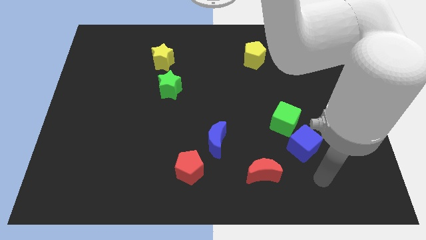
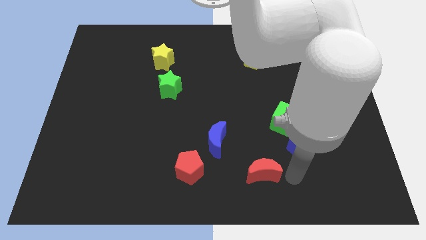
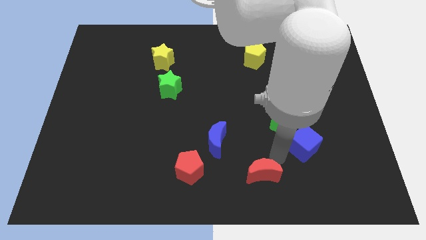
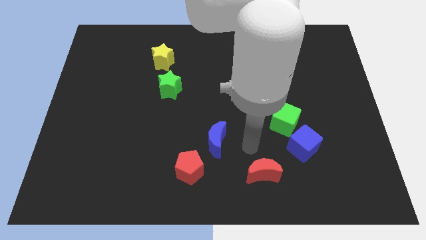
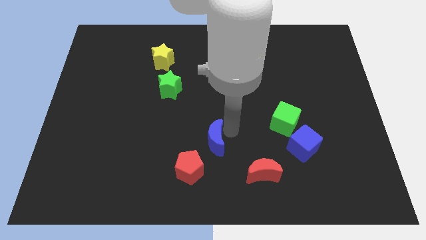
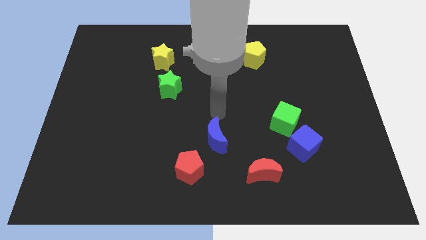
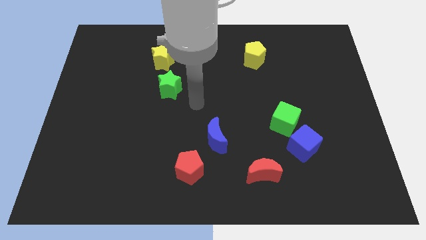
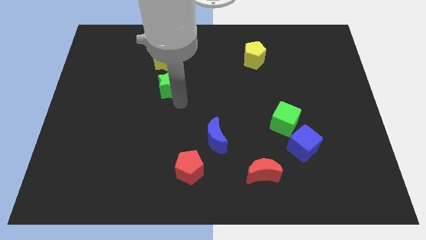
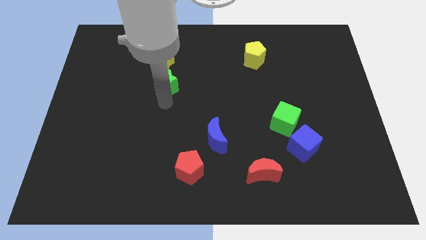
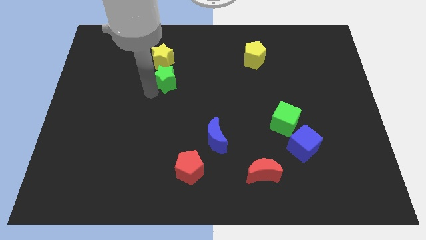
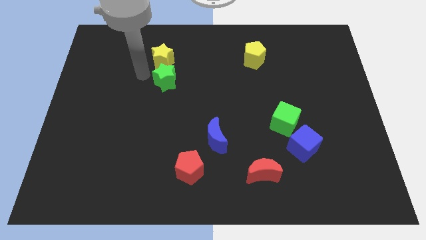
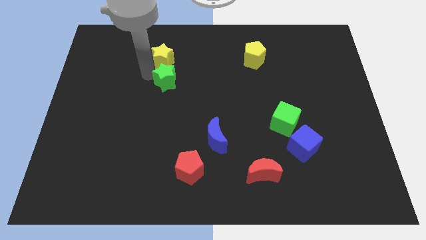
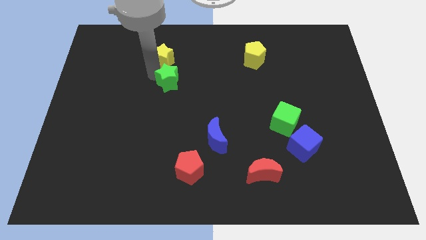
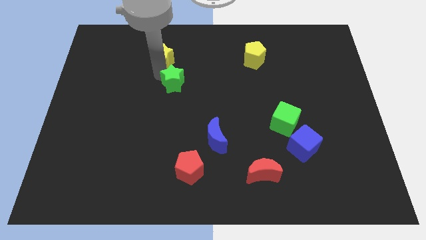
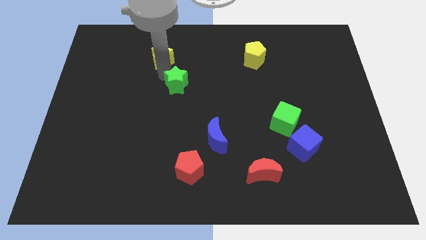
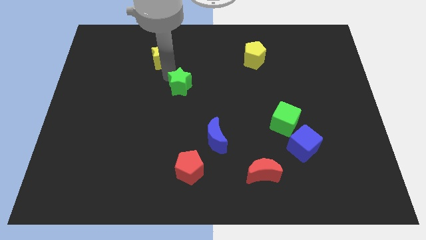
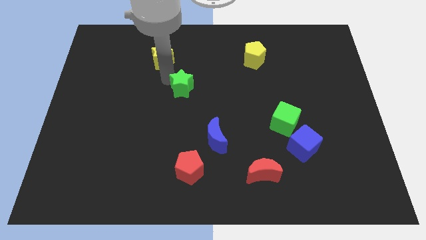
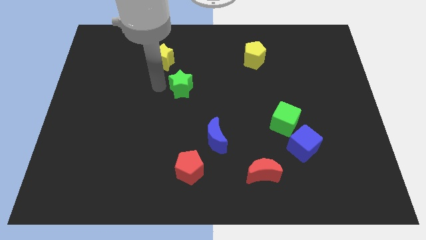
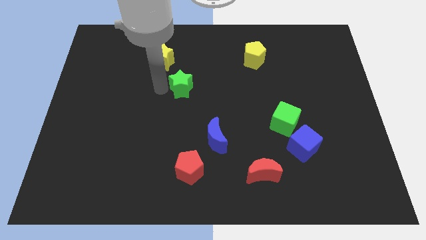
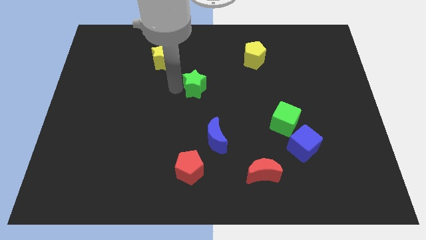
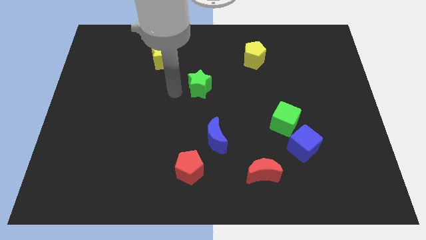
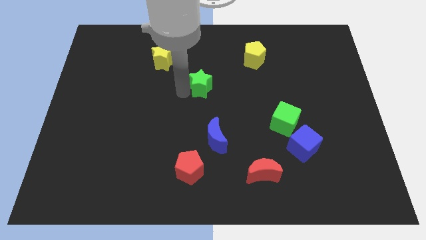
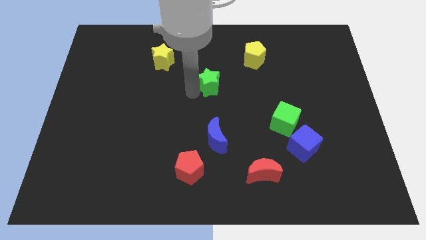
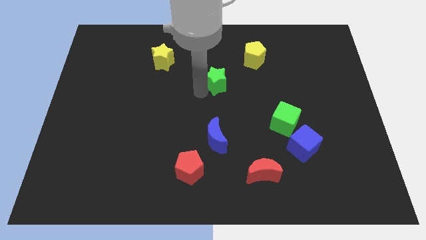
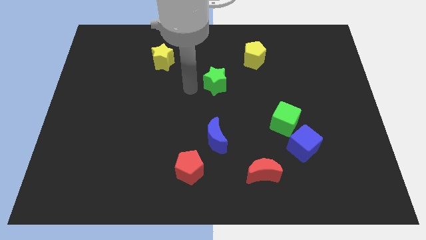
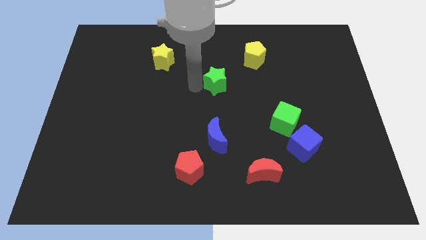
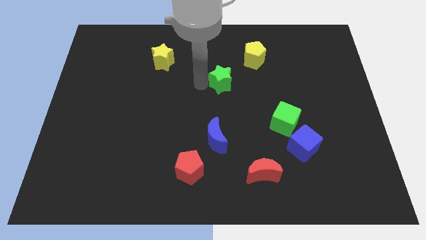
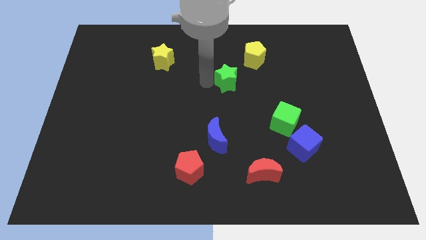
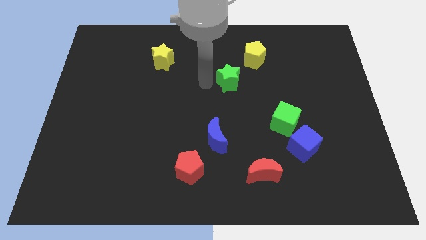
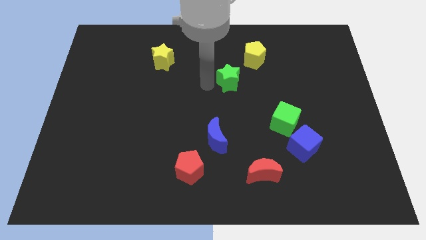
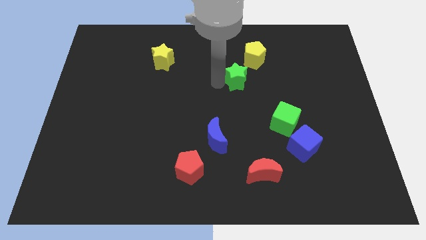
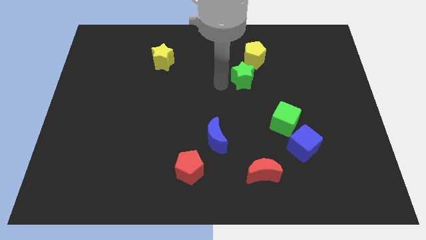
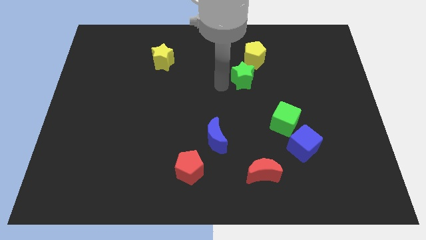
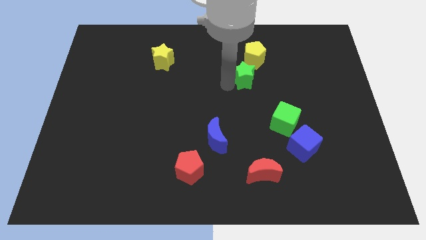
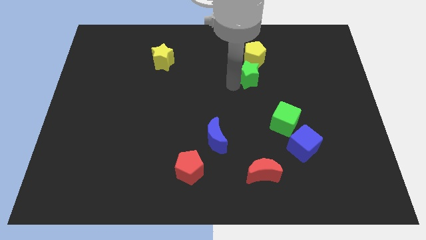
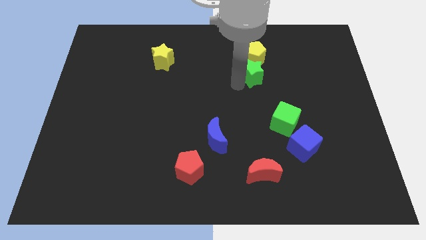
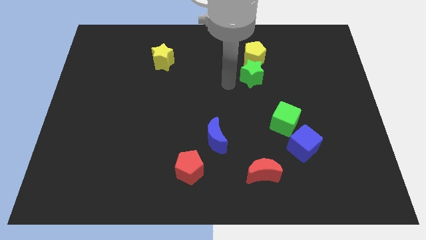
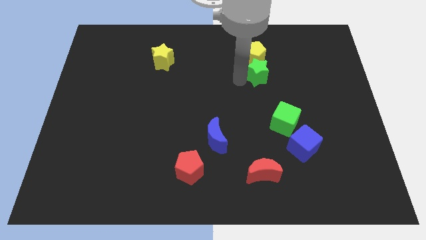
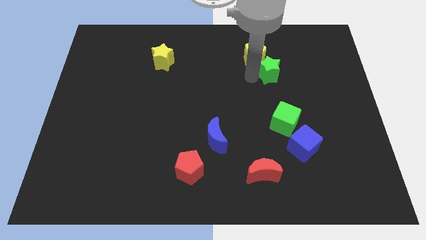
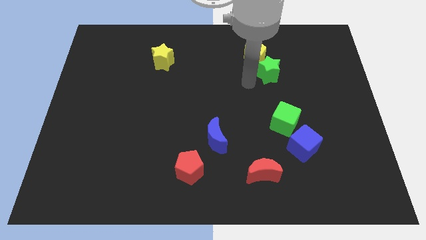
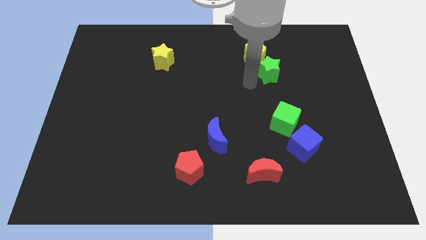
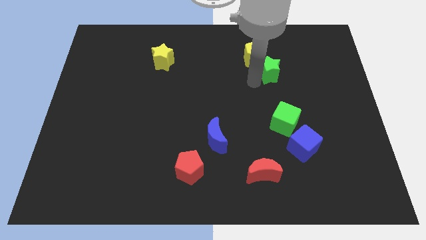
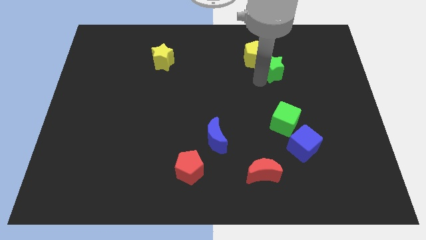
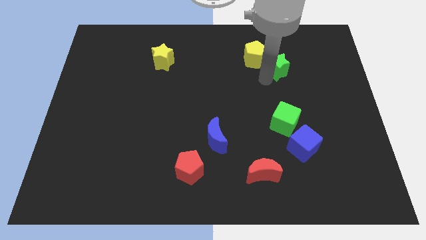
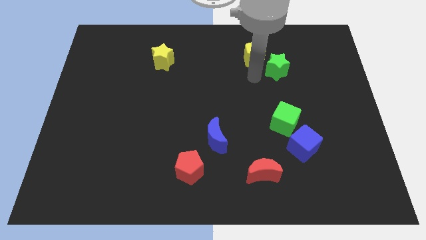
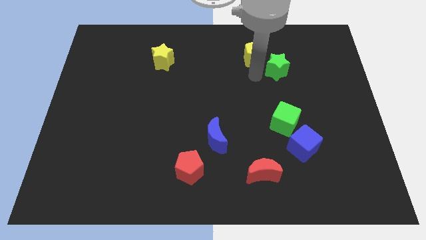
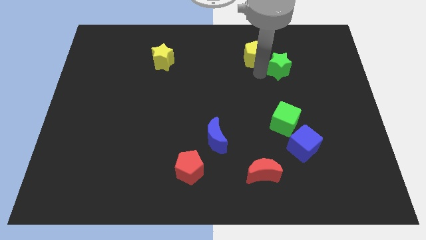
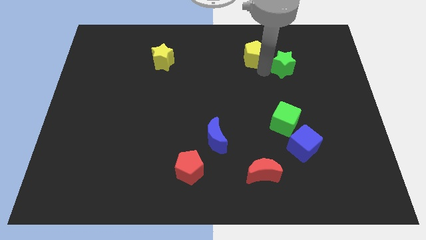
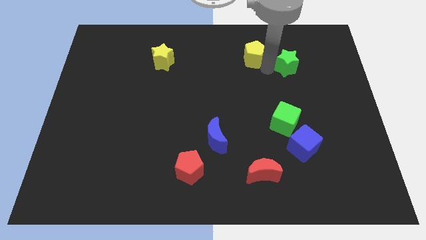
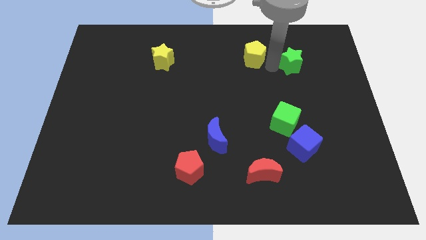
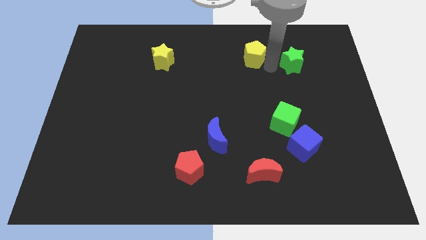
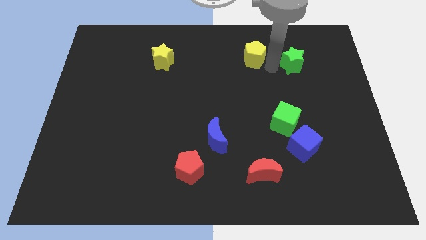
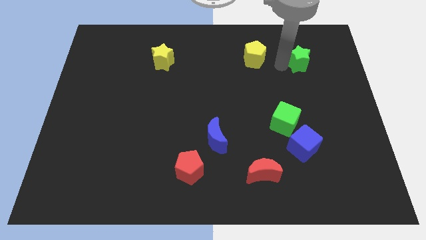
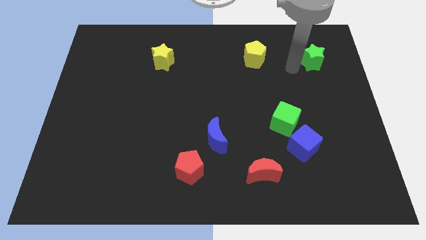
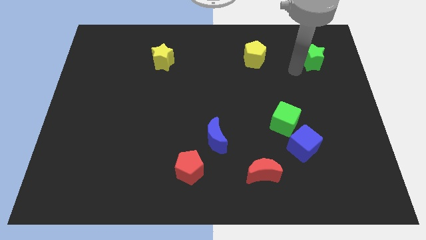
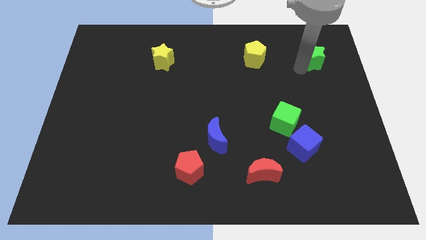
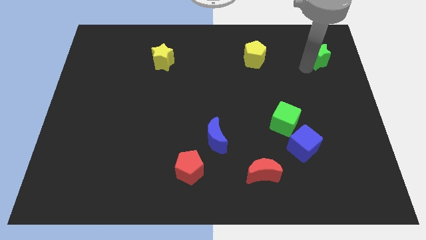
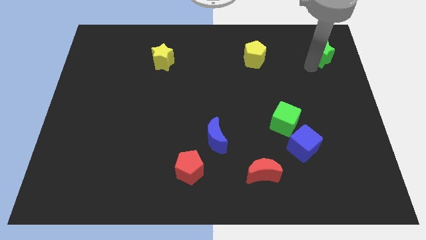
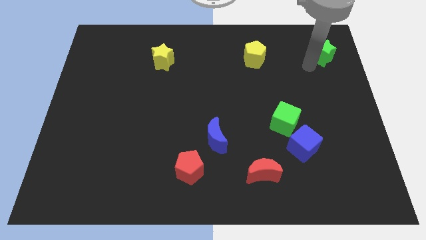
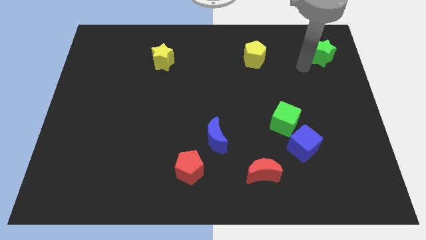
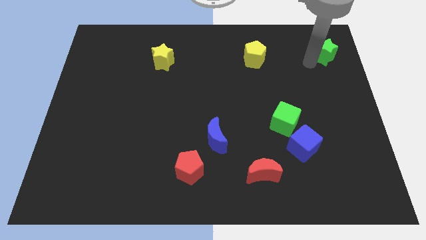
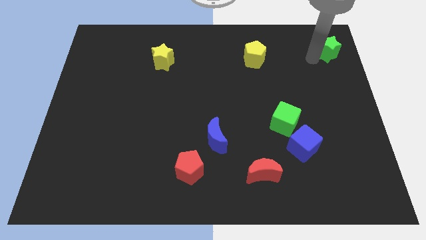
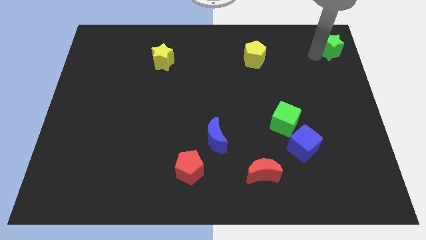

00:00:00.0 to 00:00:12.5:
move the green star to the upper right corner
